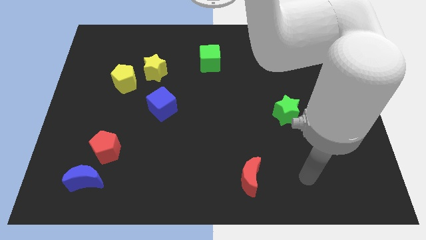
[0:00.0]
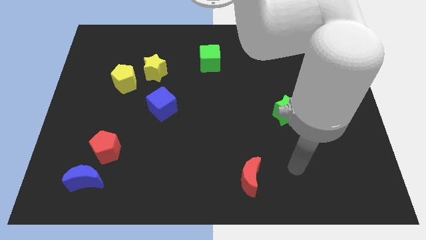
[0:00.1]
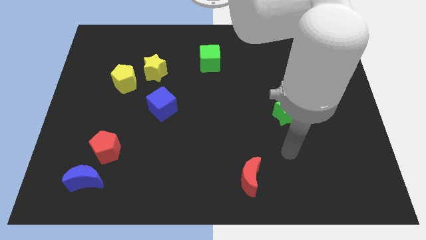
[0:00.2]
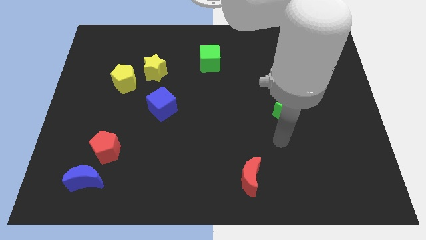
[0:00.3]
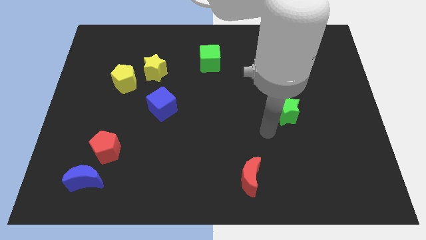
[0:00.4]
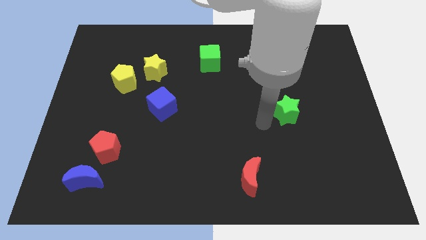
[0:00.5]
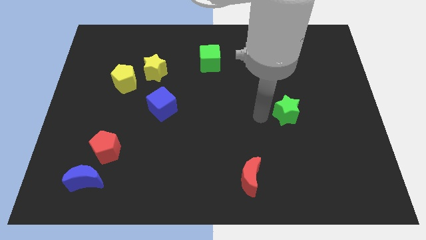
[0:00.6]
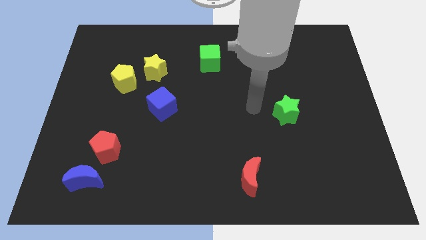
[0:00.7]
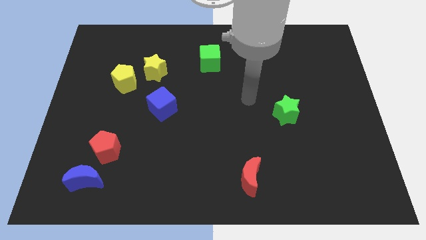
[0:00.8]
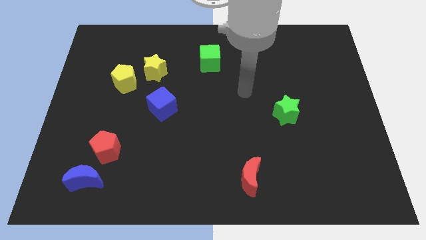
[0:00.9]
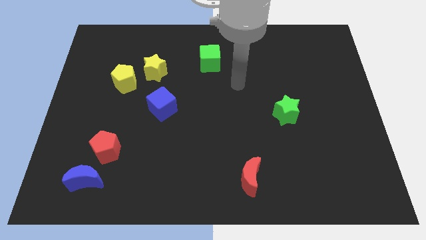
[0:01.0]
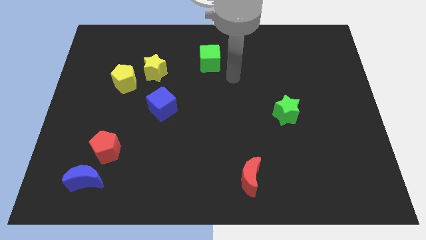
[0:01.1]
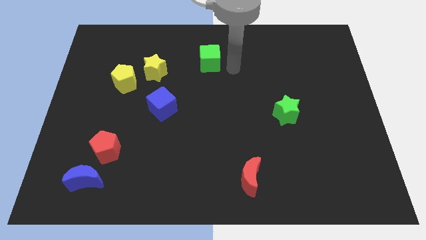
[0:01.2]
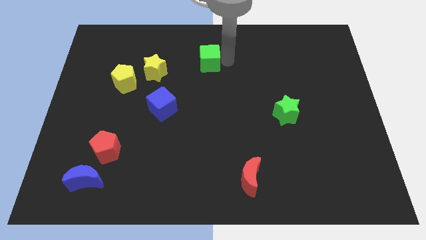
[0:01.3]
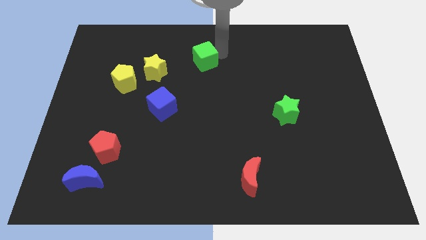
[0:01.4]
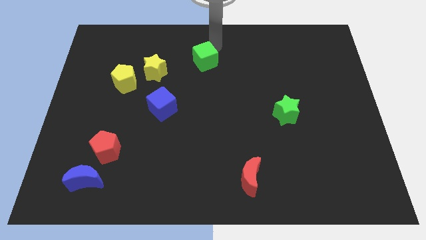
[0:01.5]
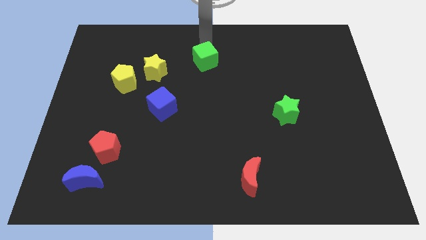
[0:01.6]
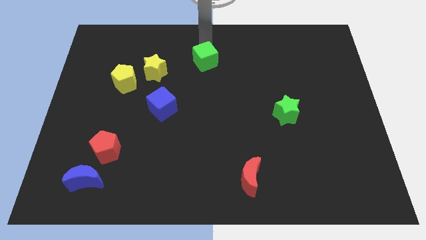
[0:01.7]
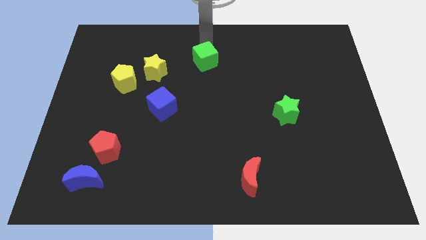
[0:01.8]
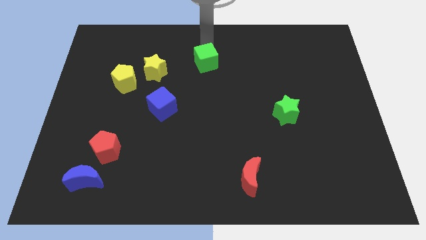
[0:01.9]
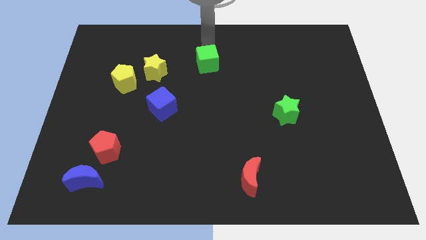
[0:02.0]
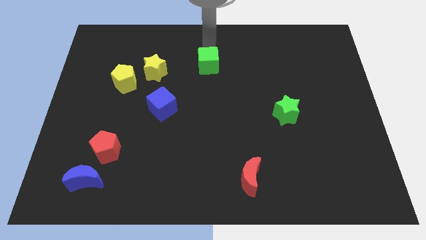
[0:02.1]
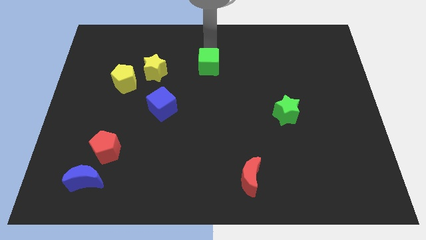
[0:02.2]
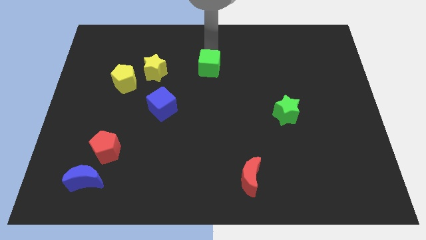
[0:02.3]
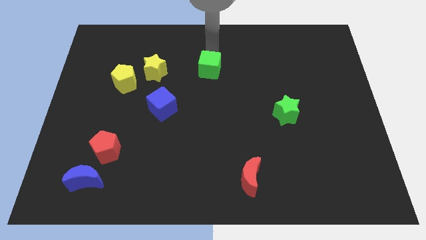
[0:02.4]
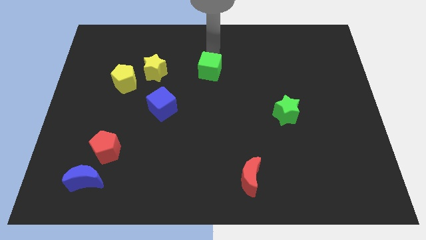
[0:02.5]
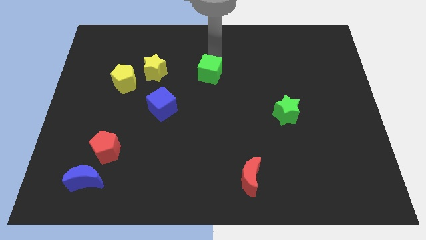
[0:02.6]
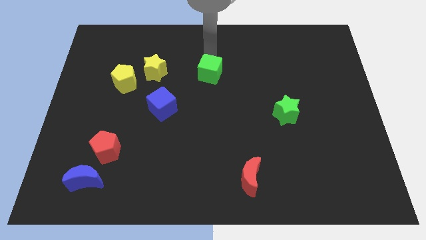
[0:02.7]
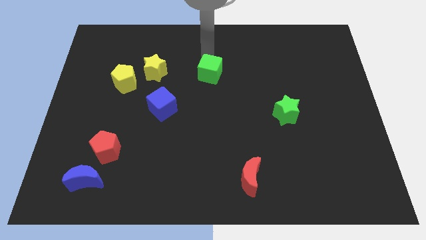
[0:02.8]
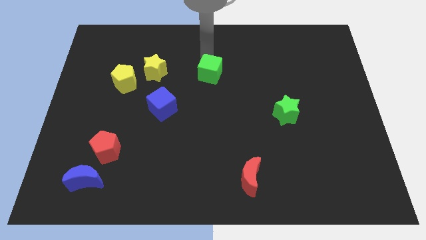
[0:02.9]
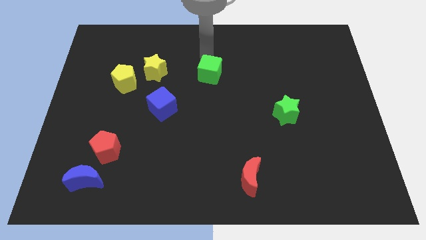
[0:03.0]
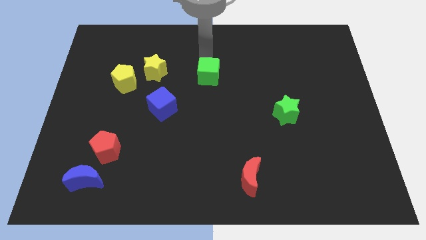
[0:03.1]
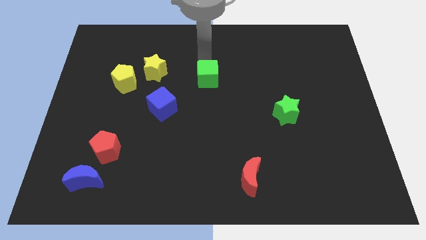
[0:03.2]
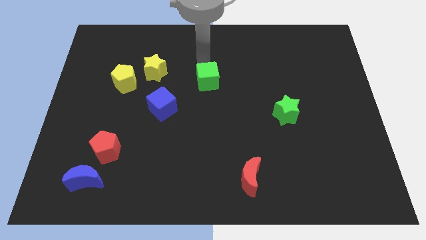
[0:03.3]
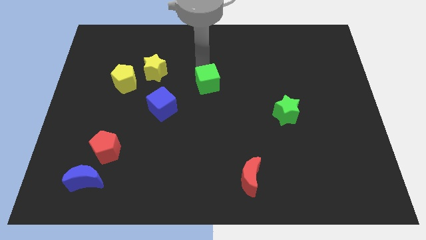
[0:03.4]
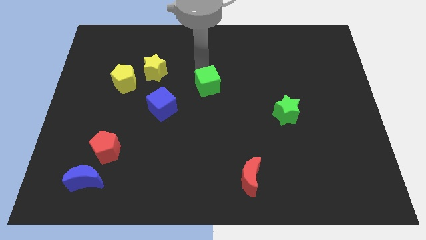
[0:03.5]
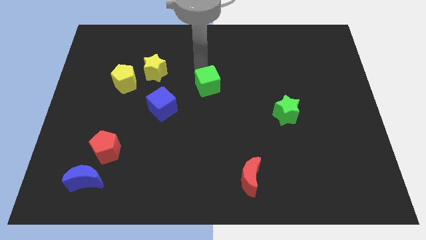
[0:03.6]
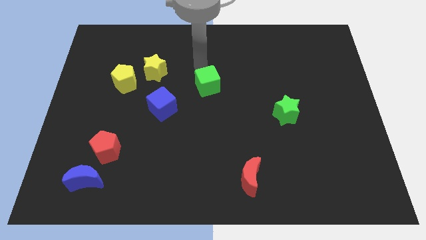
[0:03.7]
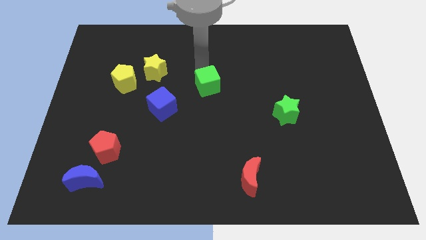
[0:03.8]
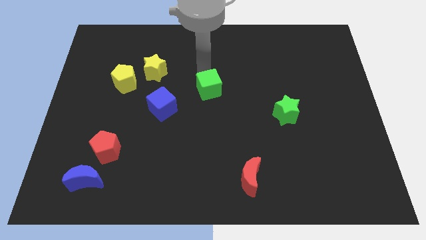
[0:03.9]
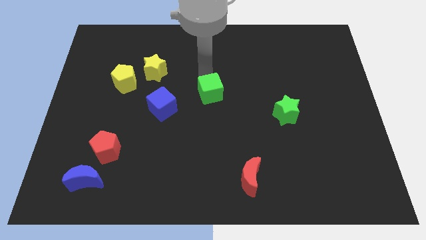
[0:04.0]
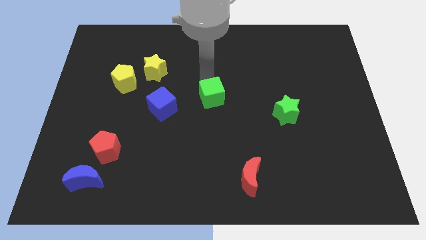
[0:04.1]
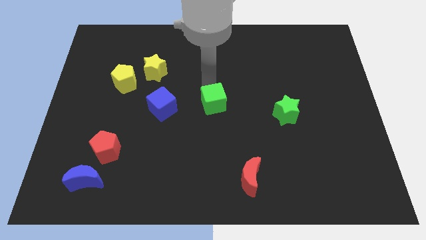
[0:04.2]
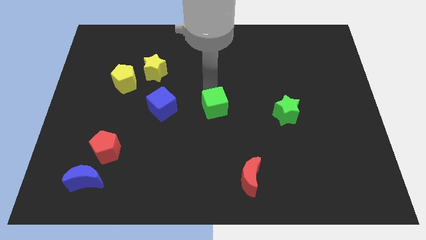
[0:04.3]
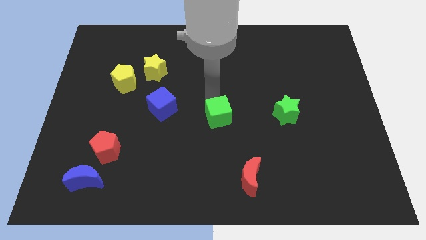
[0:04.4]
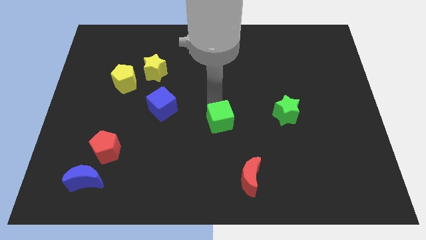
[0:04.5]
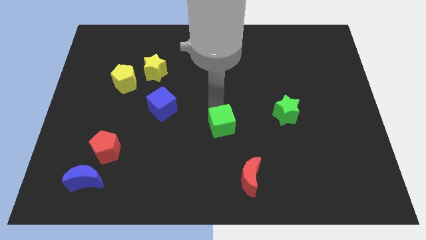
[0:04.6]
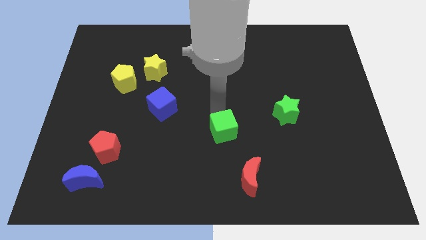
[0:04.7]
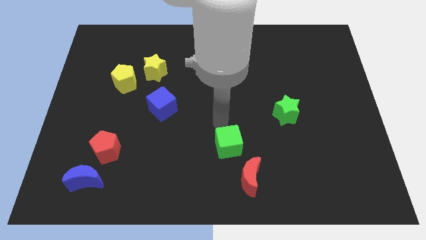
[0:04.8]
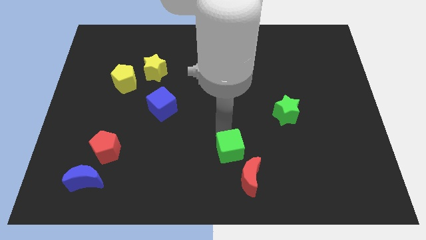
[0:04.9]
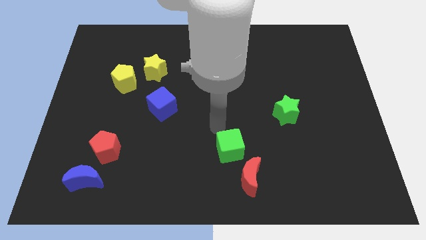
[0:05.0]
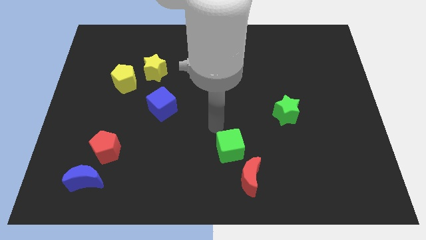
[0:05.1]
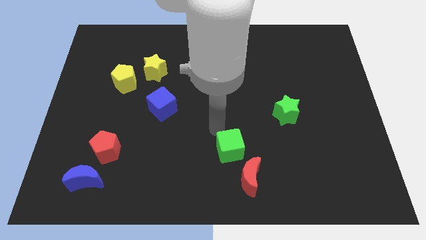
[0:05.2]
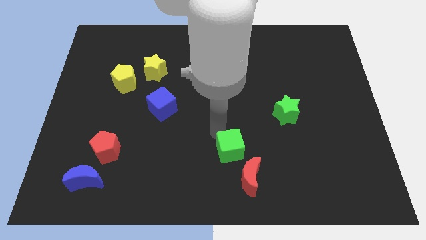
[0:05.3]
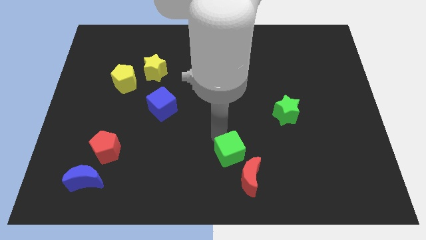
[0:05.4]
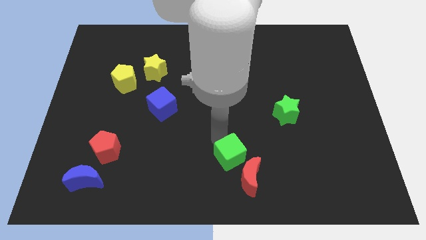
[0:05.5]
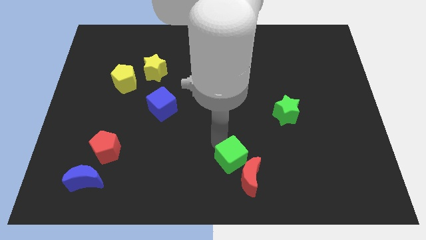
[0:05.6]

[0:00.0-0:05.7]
put the green cube to the red moon

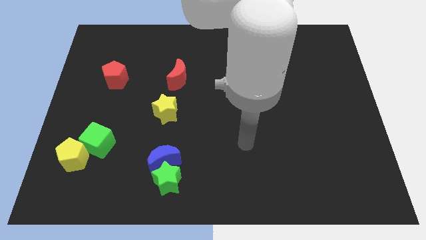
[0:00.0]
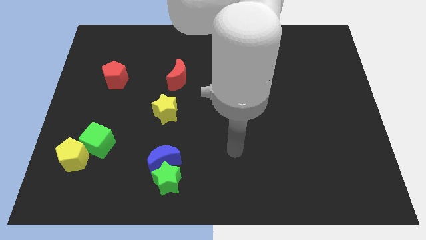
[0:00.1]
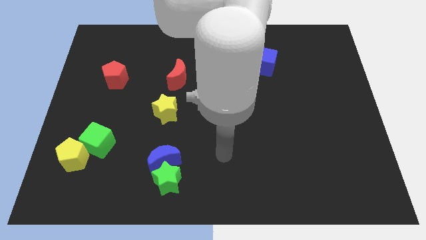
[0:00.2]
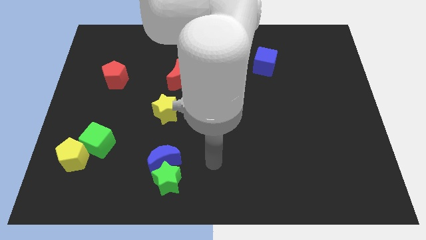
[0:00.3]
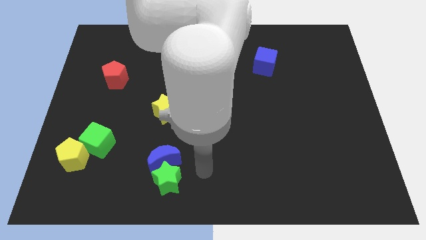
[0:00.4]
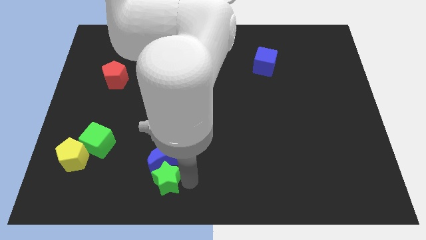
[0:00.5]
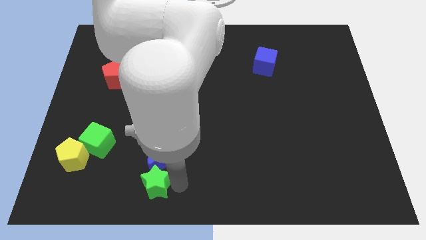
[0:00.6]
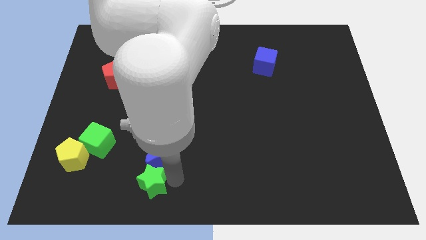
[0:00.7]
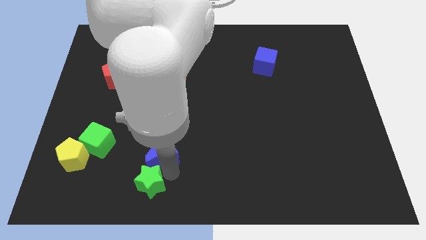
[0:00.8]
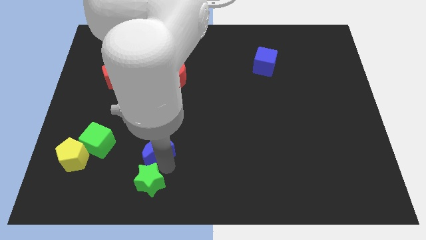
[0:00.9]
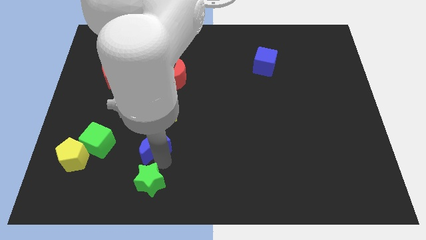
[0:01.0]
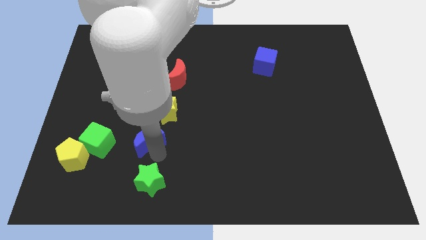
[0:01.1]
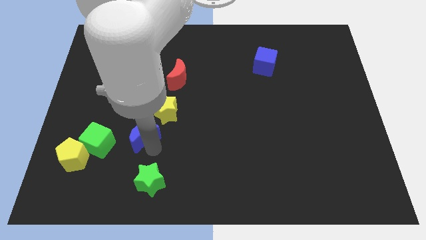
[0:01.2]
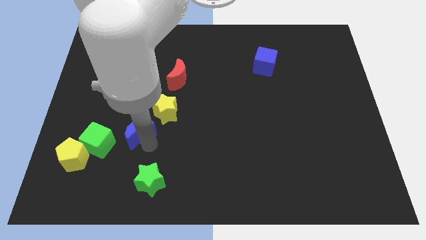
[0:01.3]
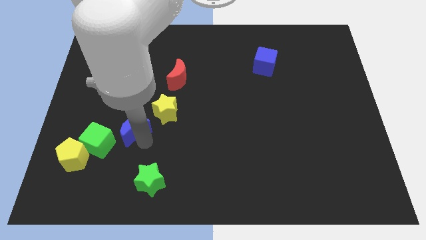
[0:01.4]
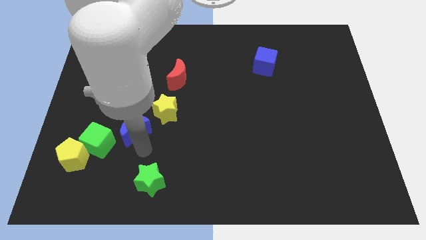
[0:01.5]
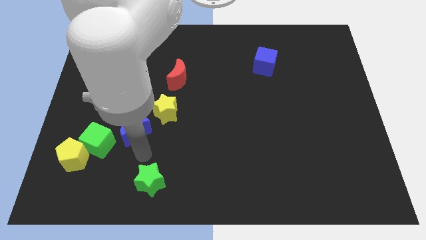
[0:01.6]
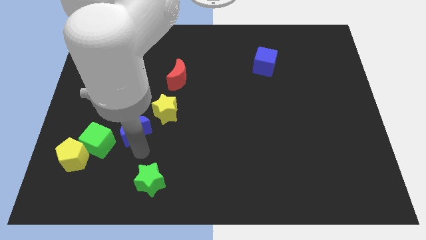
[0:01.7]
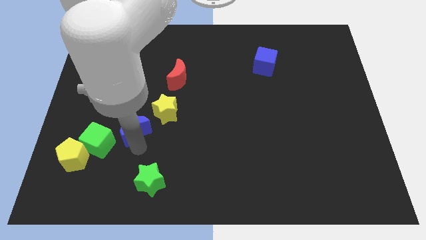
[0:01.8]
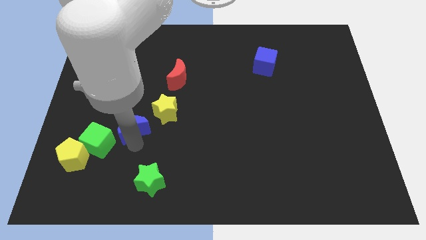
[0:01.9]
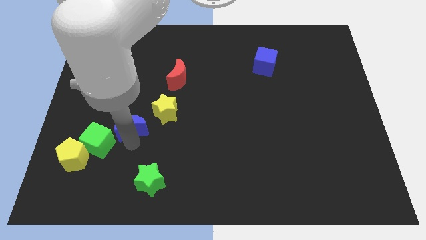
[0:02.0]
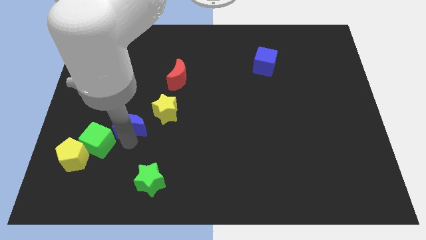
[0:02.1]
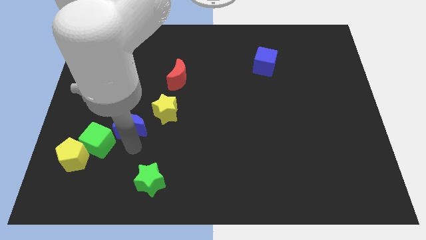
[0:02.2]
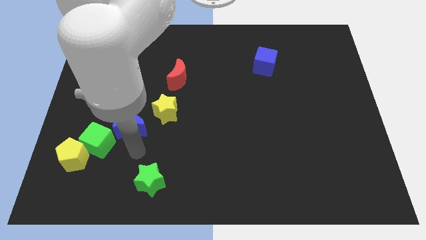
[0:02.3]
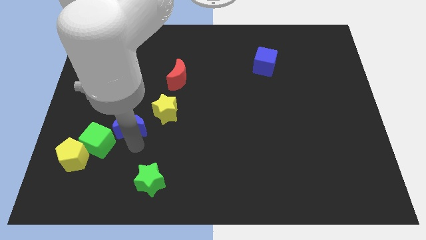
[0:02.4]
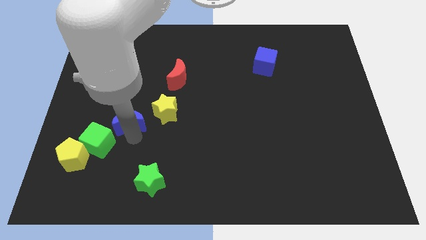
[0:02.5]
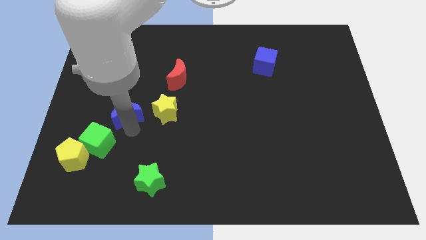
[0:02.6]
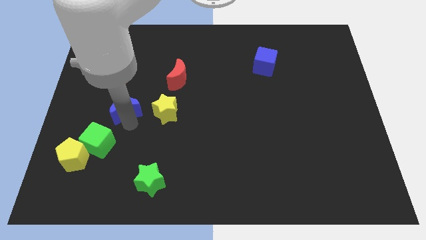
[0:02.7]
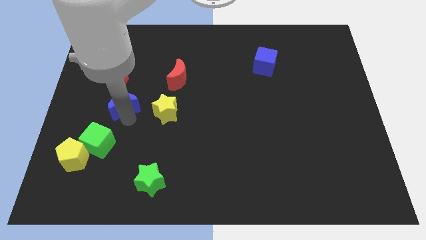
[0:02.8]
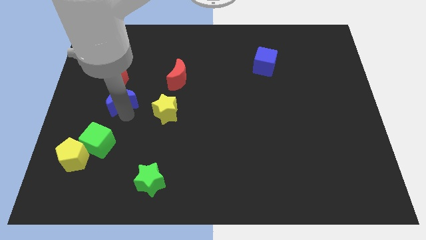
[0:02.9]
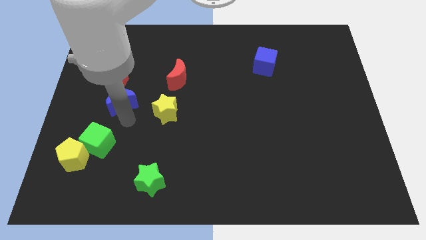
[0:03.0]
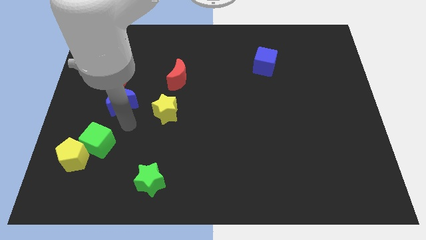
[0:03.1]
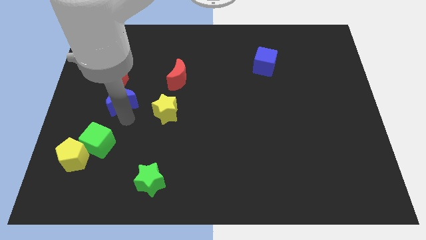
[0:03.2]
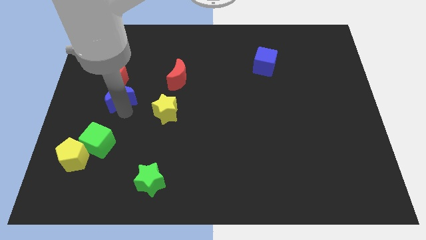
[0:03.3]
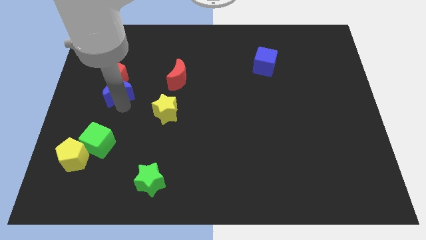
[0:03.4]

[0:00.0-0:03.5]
put the blue moon close to the red pentagon
